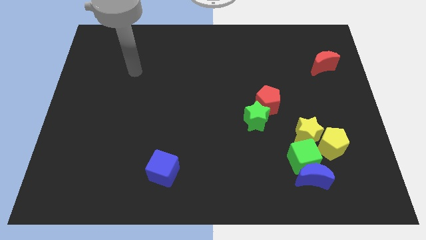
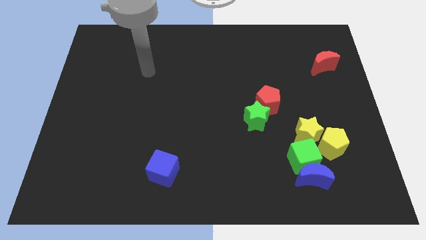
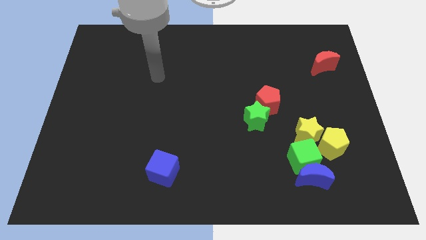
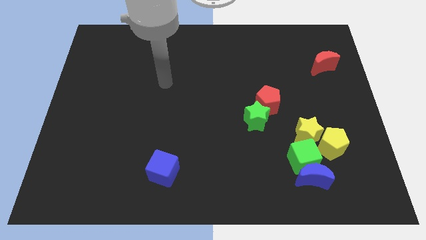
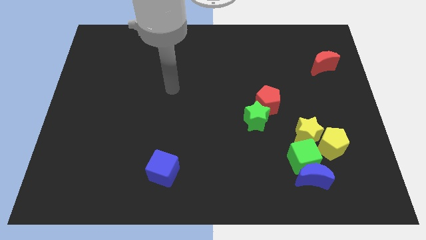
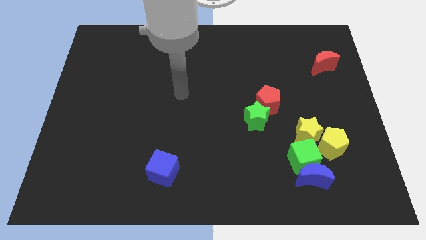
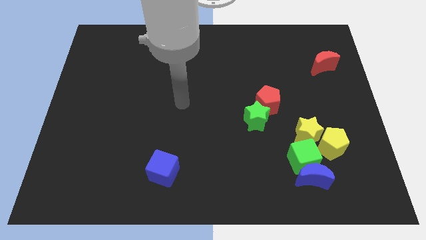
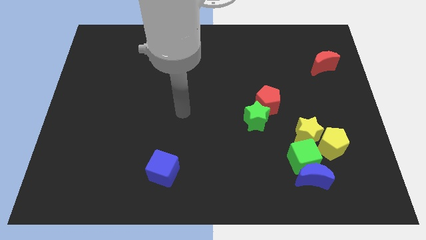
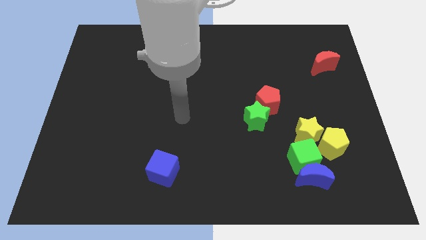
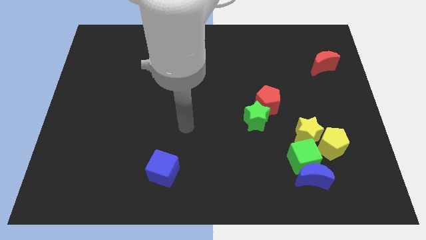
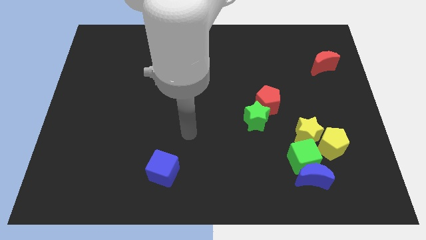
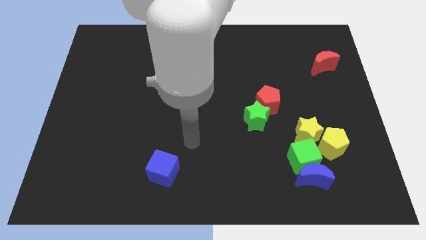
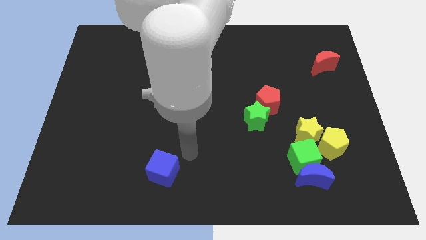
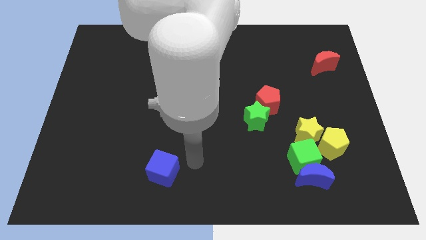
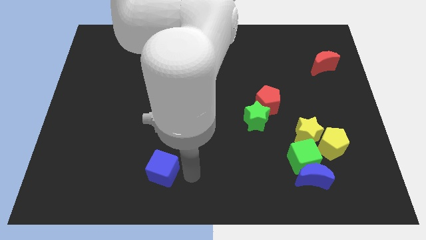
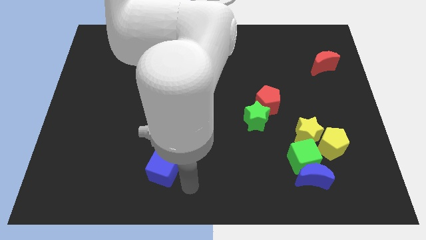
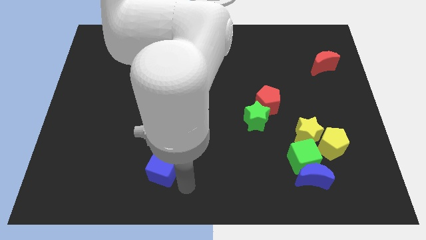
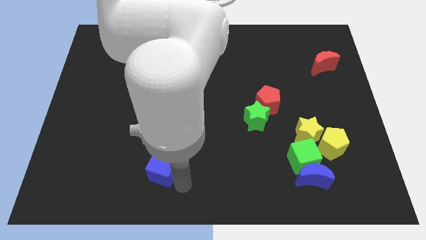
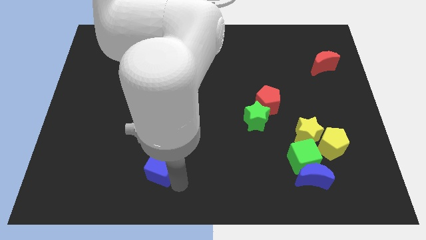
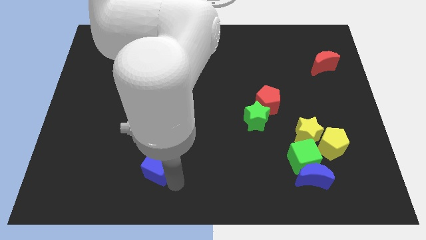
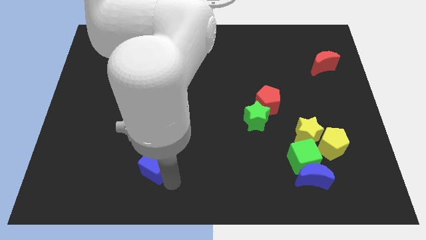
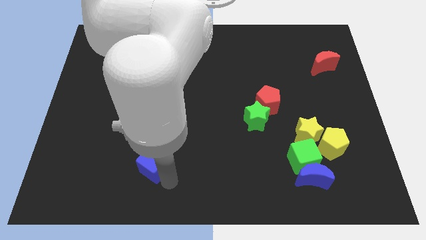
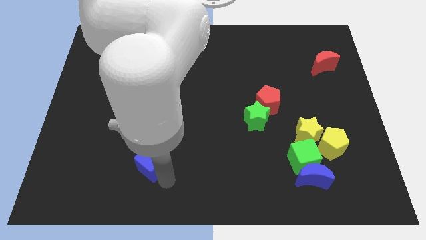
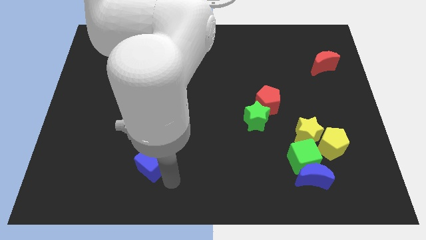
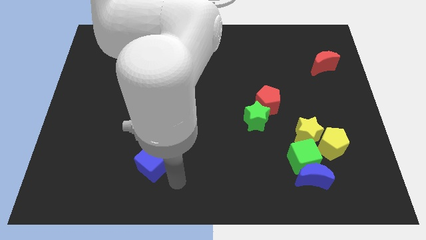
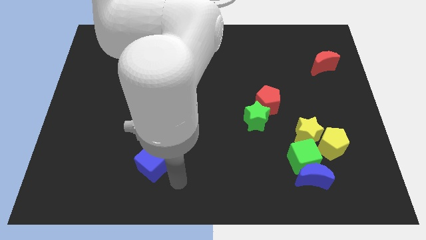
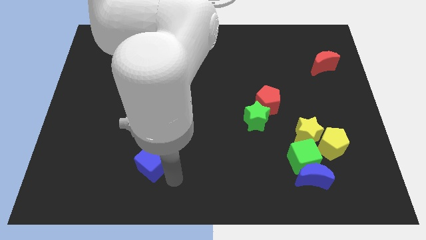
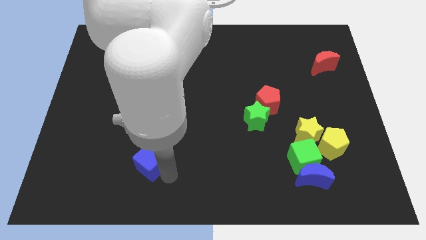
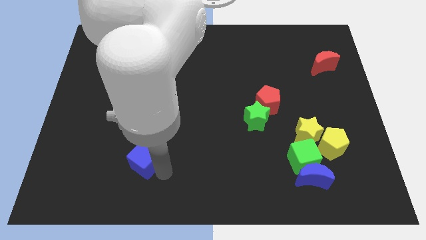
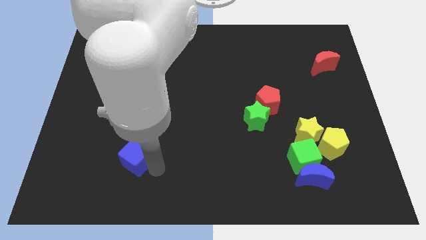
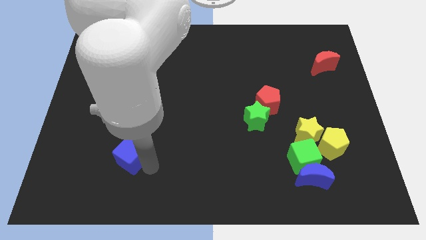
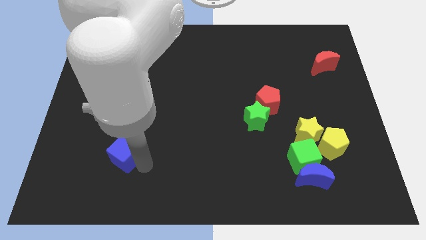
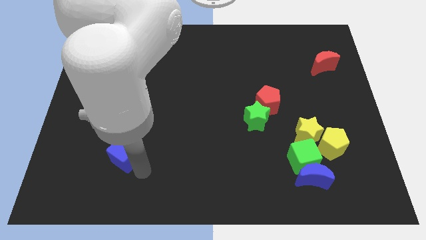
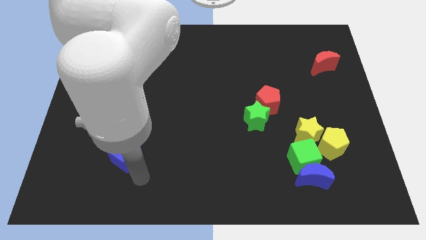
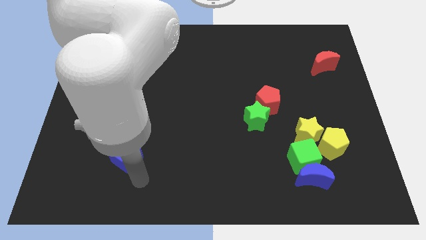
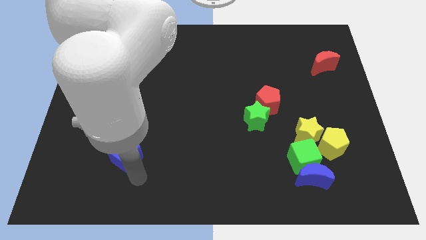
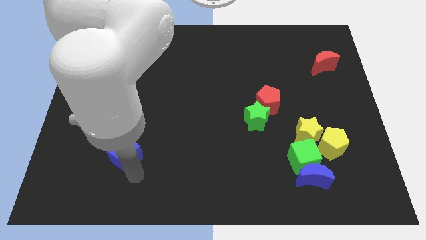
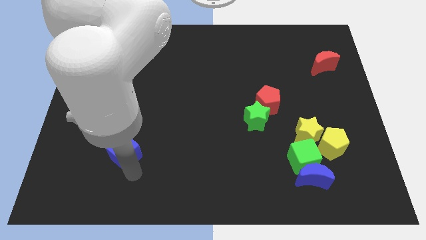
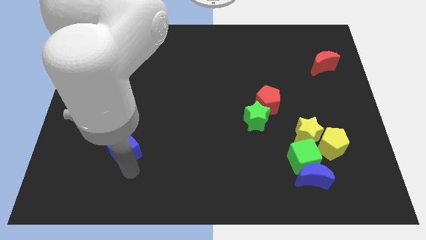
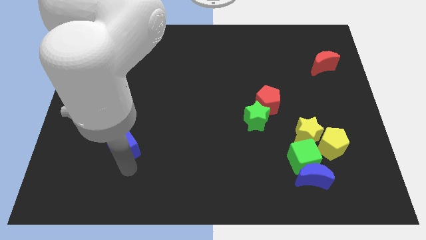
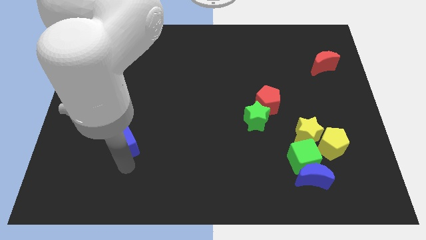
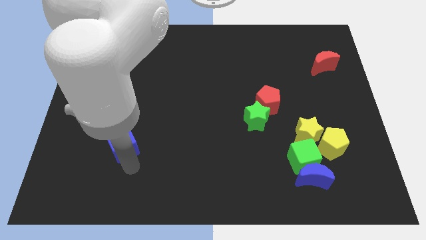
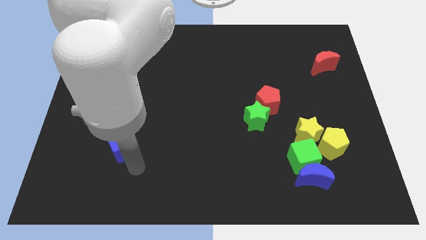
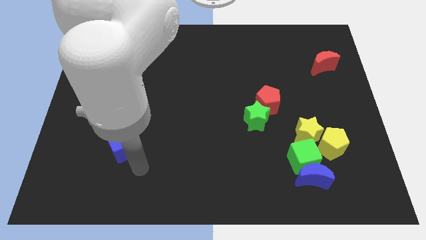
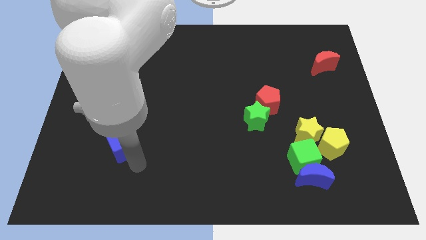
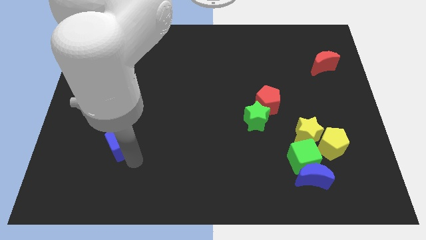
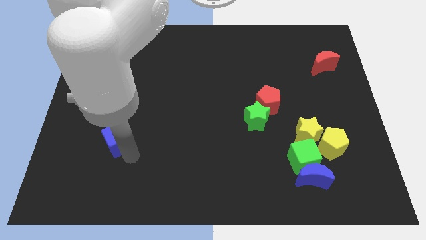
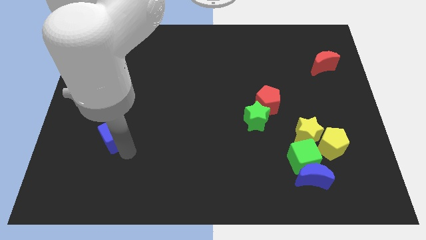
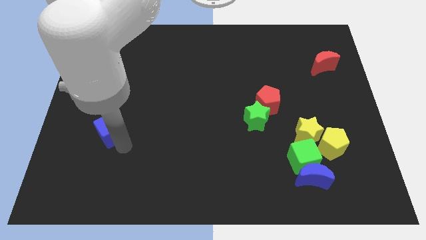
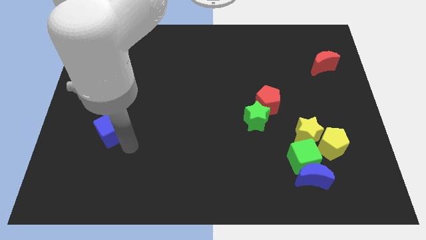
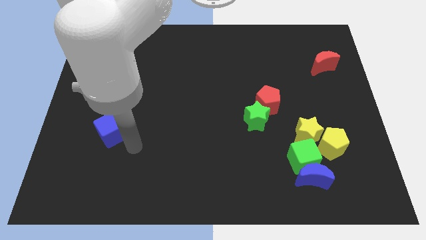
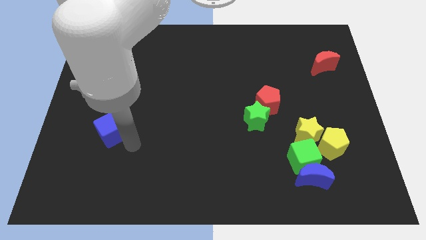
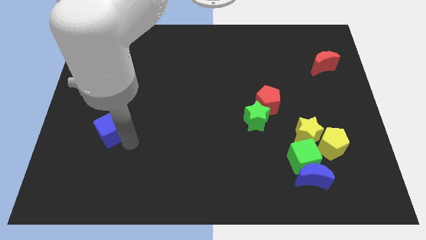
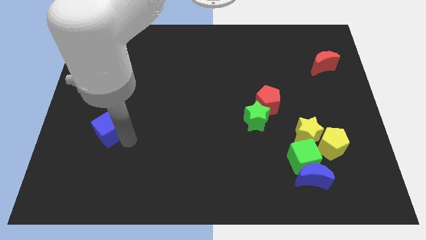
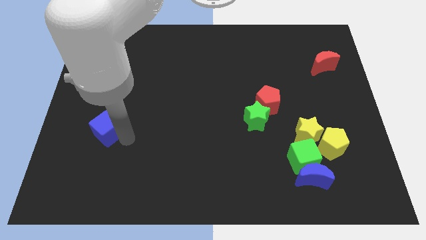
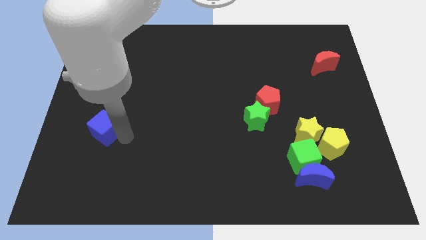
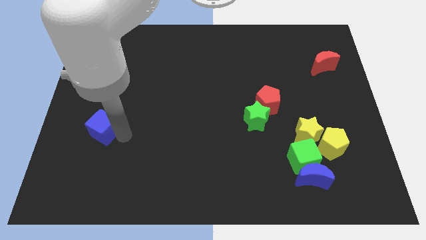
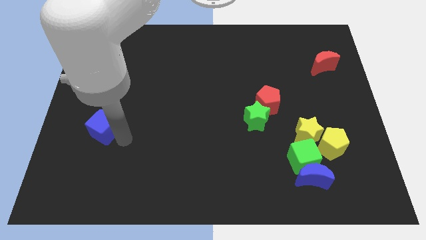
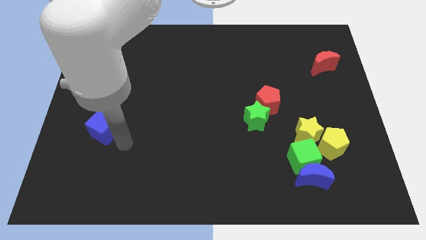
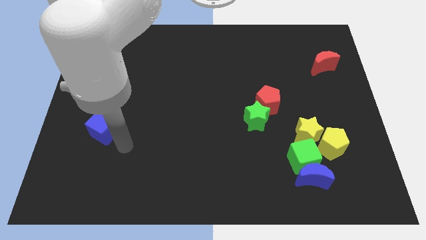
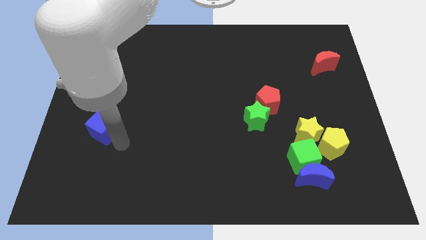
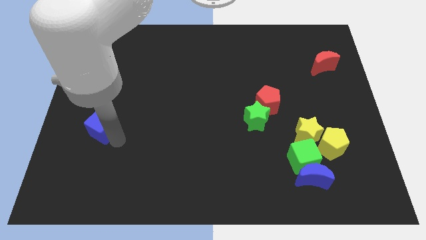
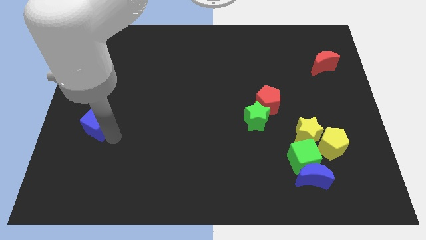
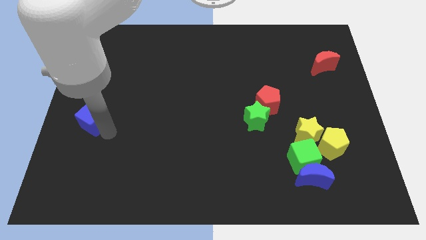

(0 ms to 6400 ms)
push the blue cube to the center left
